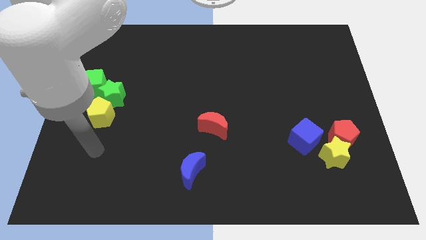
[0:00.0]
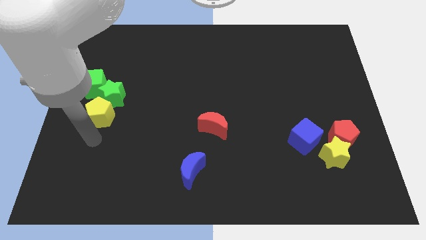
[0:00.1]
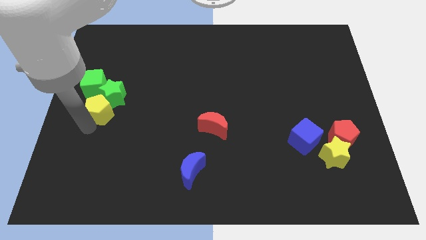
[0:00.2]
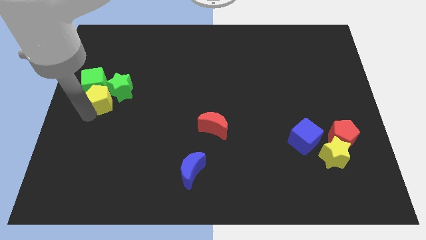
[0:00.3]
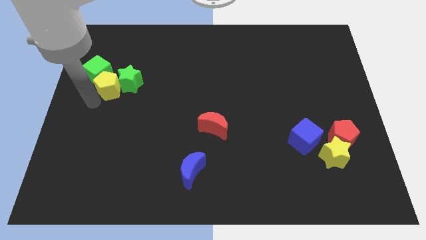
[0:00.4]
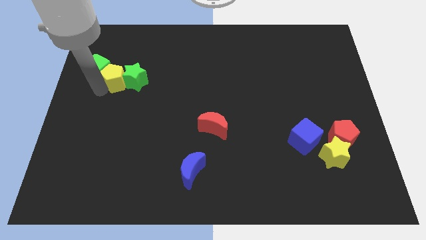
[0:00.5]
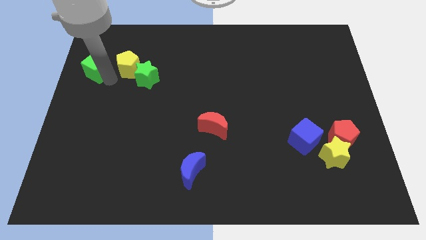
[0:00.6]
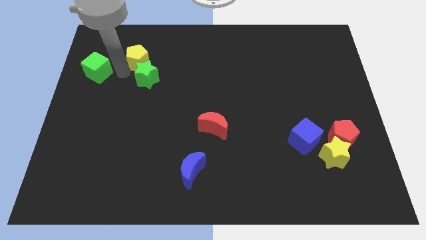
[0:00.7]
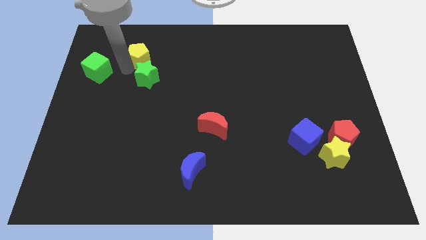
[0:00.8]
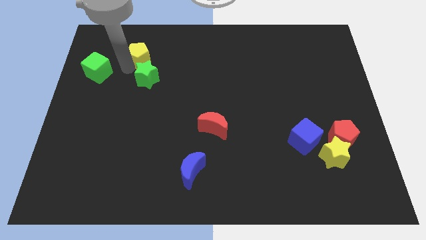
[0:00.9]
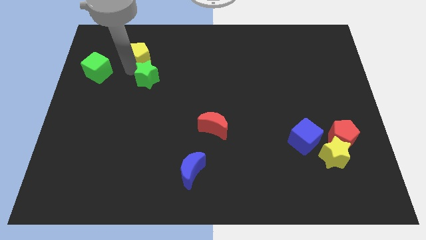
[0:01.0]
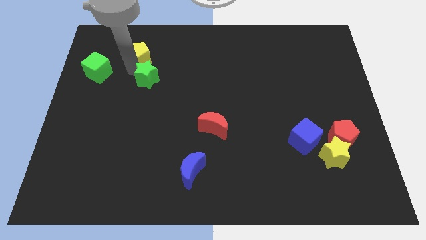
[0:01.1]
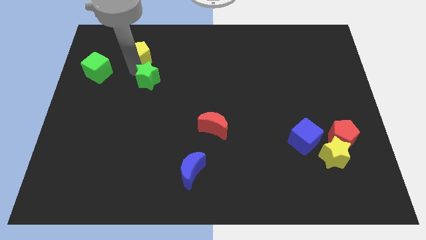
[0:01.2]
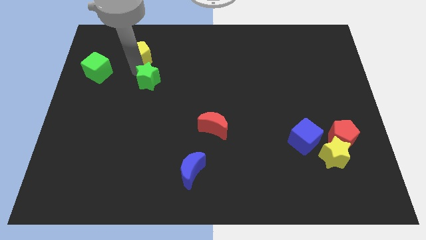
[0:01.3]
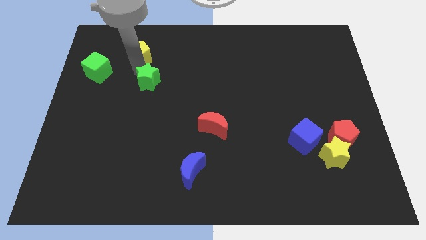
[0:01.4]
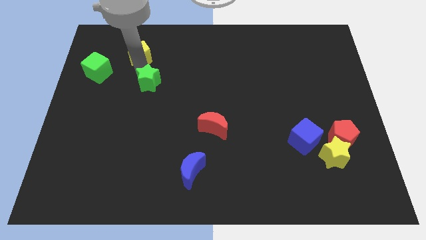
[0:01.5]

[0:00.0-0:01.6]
separate the green star from the green cube and yellow pentagon

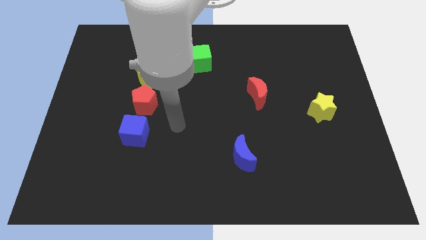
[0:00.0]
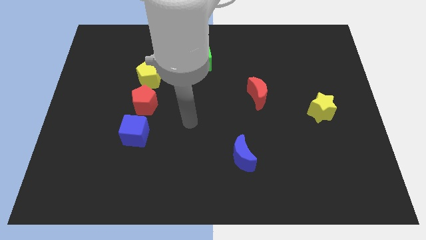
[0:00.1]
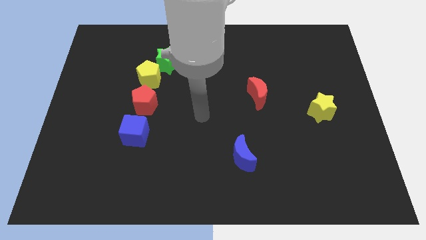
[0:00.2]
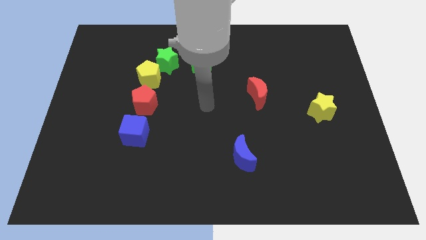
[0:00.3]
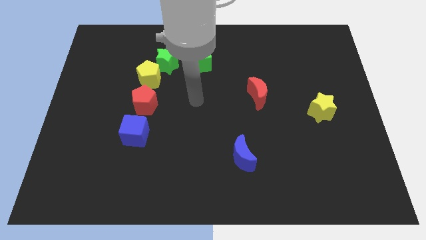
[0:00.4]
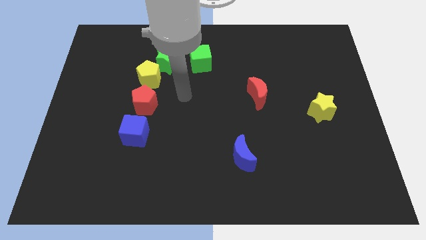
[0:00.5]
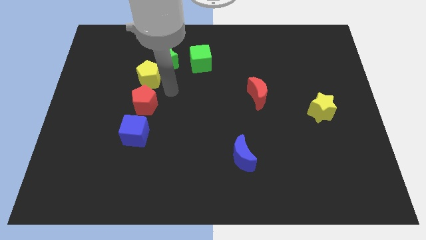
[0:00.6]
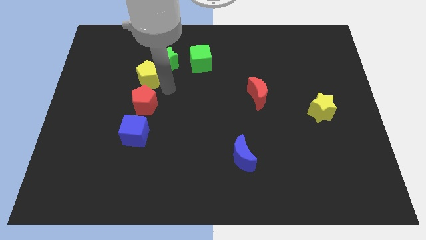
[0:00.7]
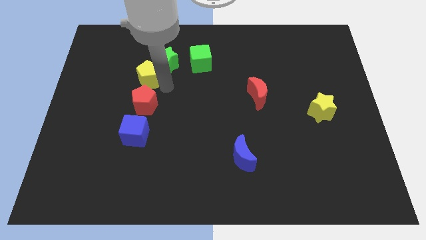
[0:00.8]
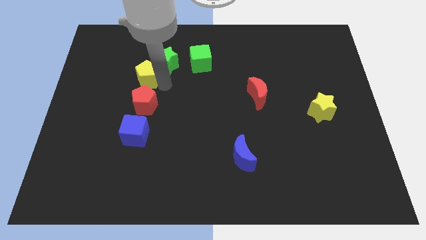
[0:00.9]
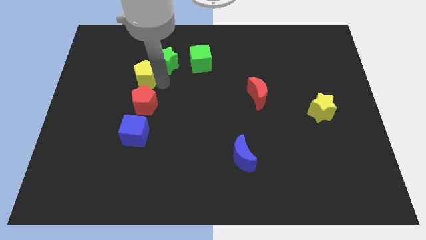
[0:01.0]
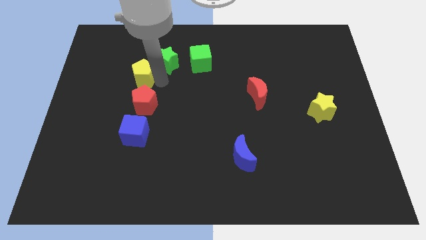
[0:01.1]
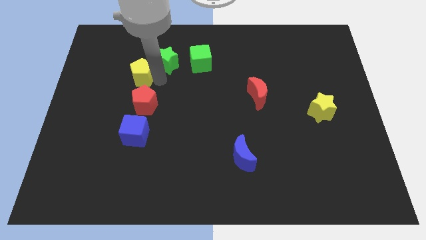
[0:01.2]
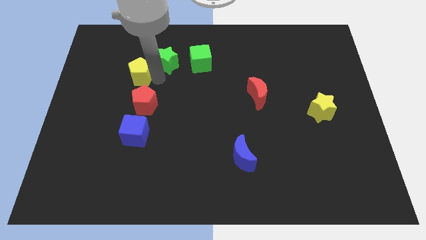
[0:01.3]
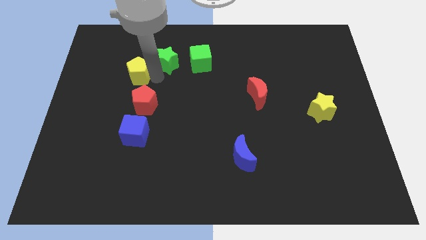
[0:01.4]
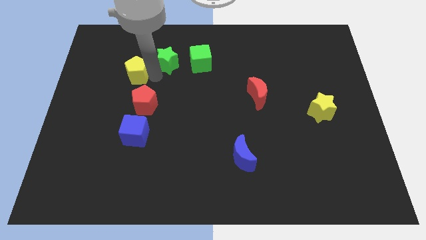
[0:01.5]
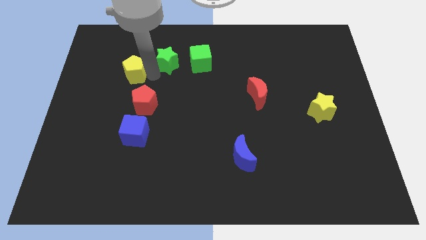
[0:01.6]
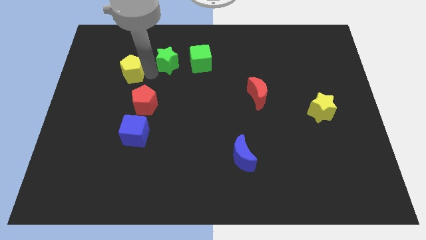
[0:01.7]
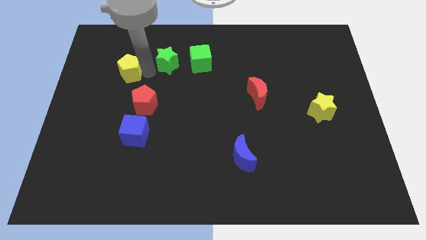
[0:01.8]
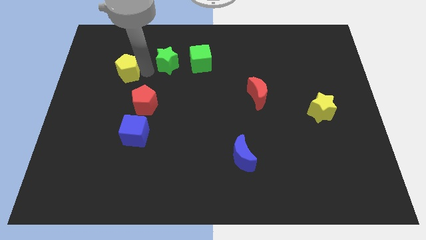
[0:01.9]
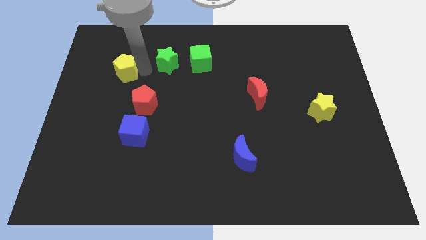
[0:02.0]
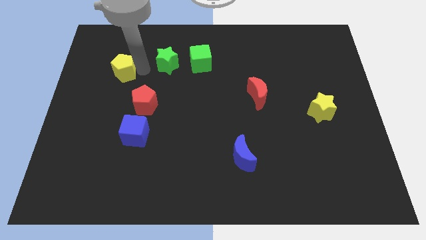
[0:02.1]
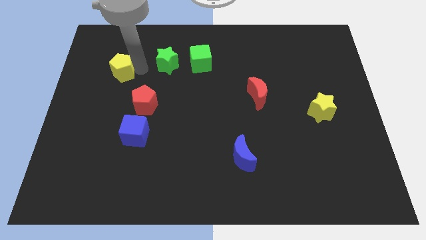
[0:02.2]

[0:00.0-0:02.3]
pull the yellow pentagon apart from the green star and red pentagon

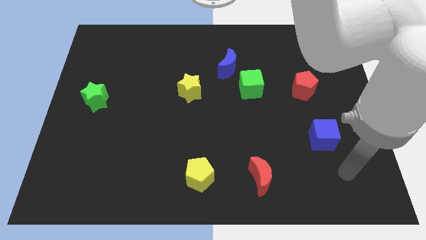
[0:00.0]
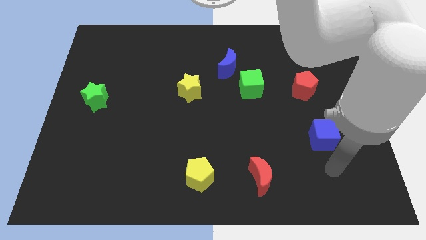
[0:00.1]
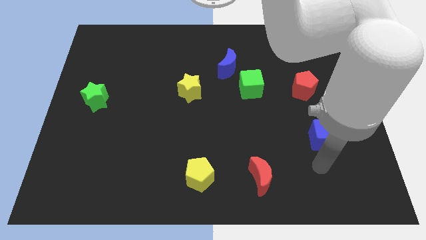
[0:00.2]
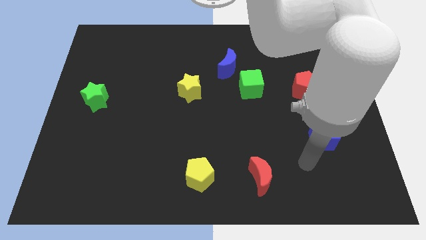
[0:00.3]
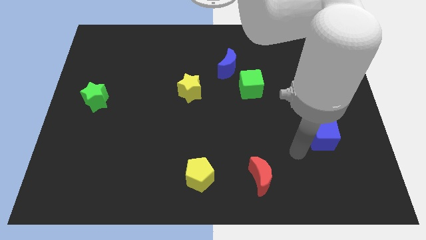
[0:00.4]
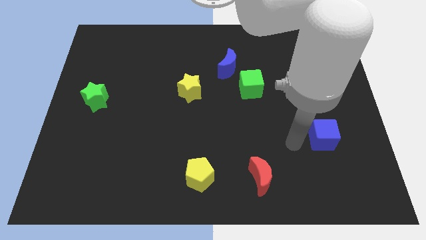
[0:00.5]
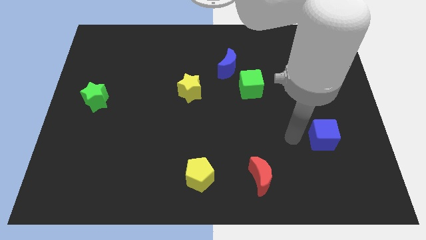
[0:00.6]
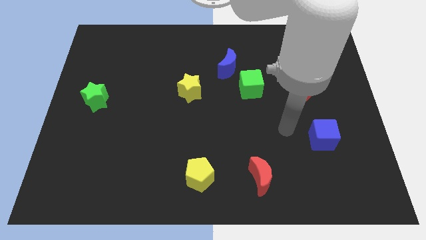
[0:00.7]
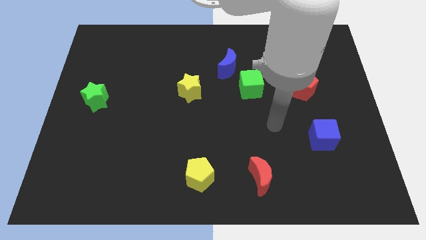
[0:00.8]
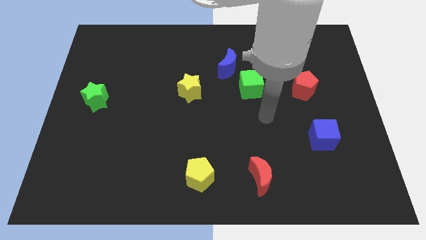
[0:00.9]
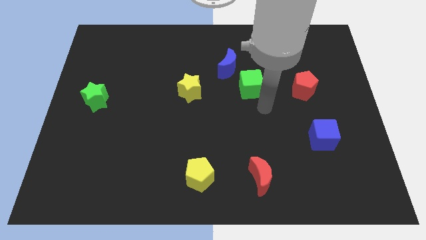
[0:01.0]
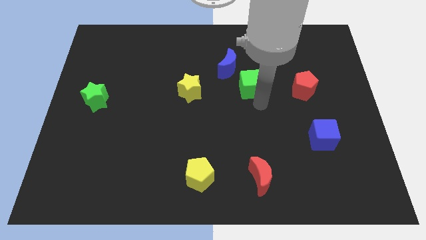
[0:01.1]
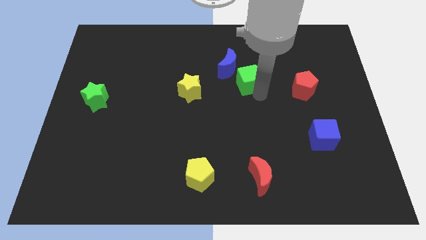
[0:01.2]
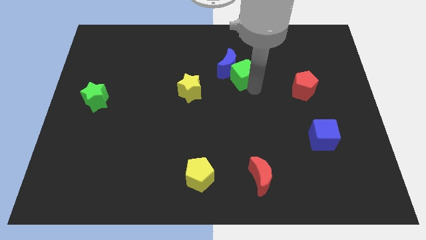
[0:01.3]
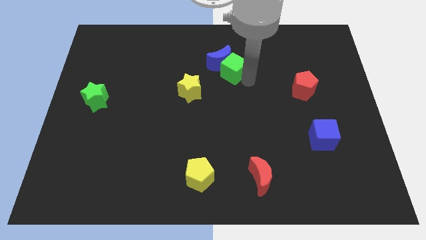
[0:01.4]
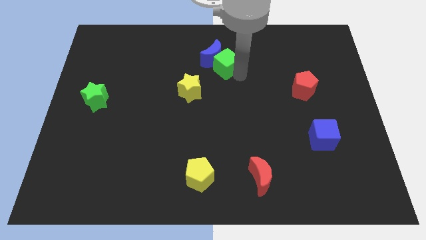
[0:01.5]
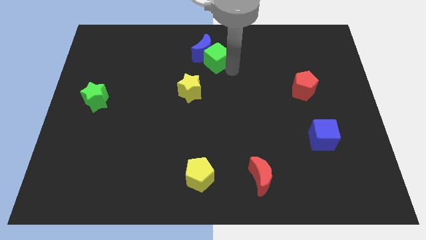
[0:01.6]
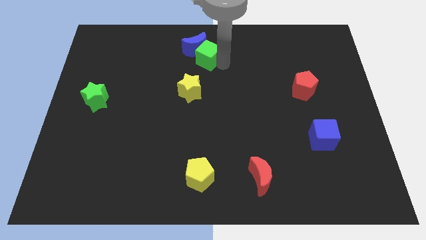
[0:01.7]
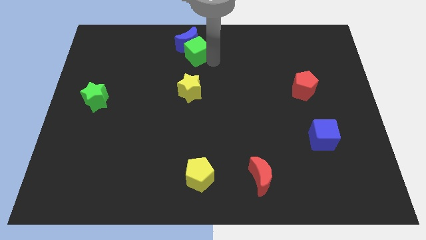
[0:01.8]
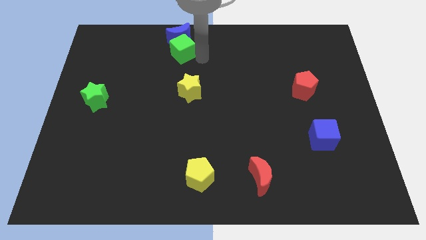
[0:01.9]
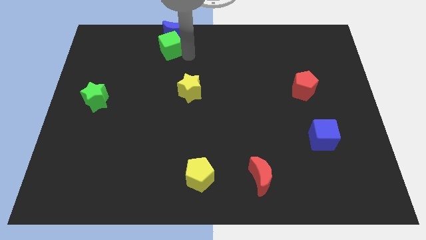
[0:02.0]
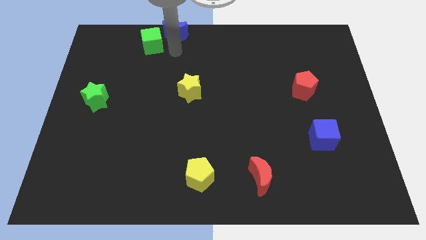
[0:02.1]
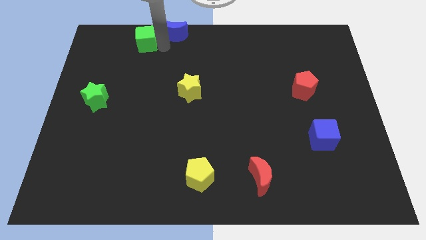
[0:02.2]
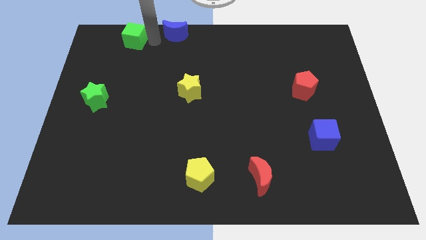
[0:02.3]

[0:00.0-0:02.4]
pull the blue moon apart from the green cube

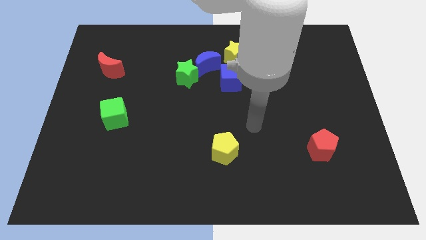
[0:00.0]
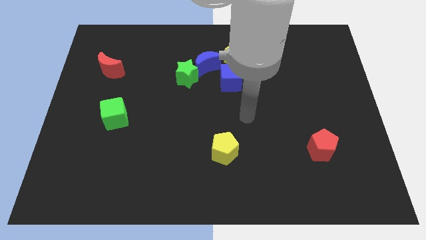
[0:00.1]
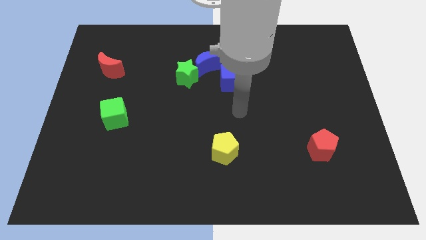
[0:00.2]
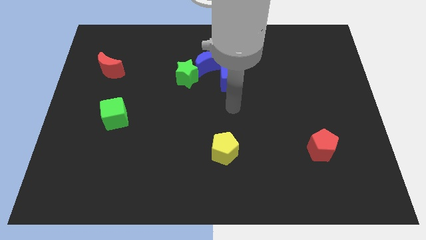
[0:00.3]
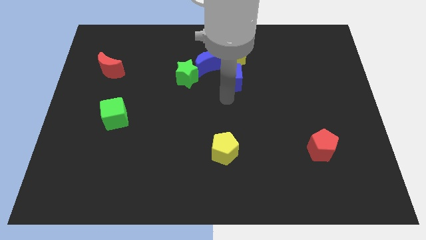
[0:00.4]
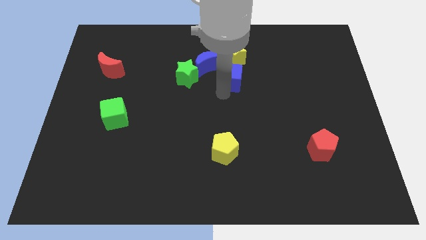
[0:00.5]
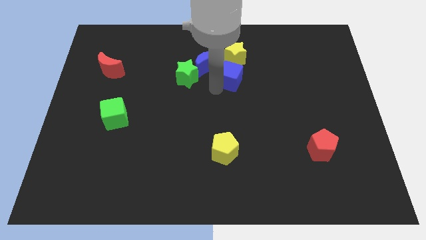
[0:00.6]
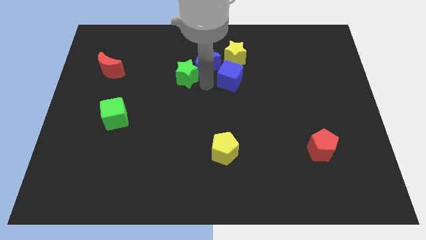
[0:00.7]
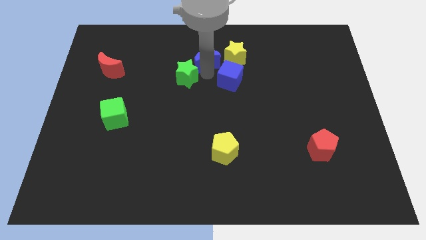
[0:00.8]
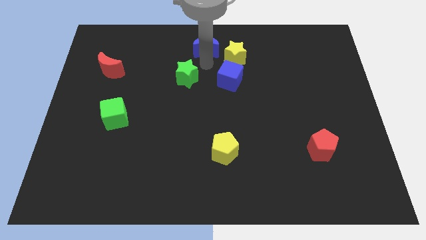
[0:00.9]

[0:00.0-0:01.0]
pull the green star apart from the blue moon

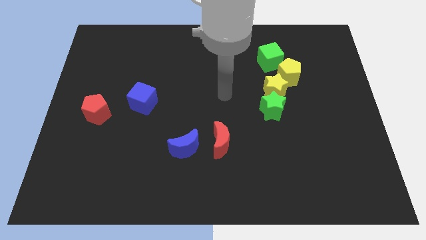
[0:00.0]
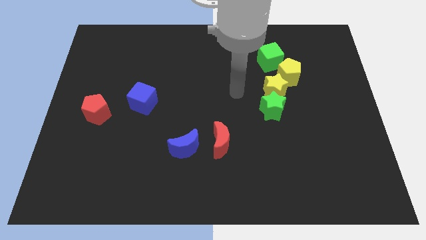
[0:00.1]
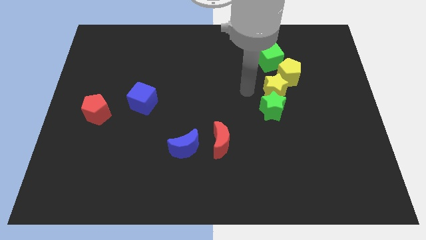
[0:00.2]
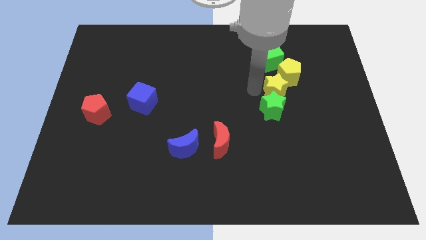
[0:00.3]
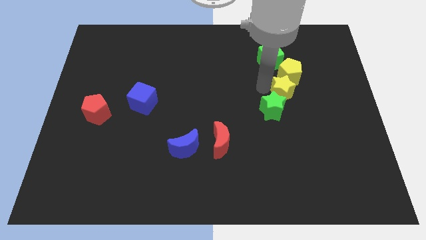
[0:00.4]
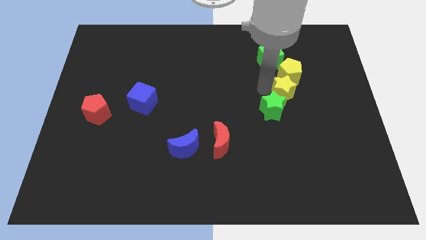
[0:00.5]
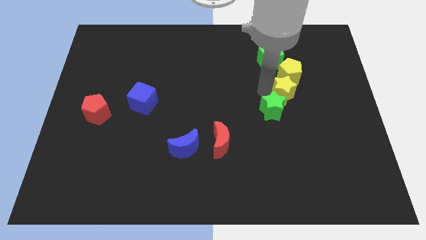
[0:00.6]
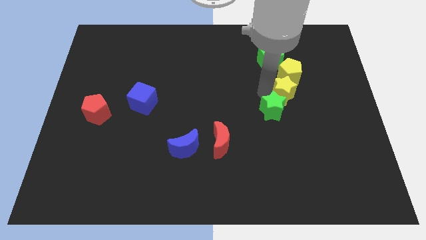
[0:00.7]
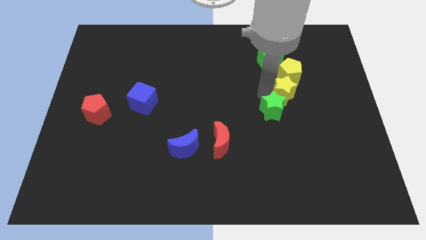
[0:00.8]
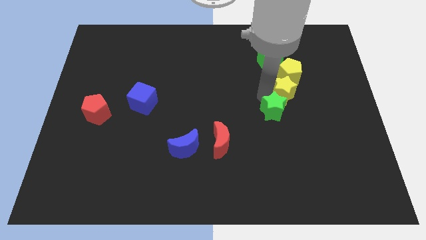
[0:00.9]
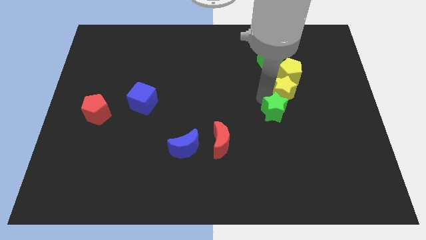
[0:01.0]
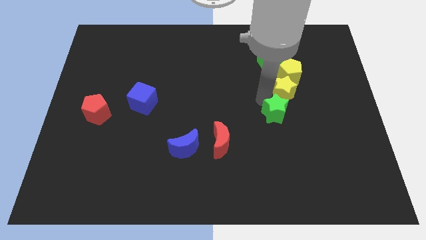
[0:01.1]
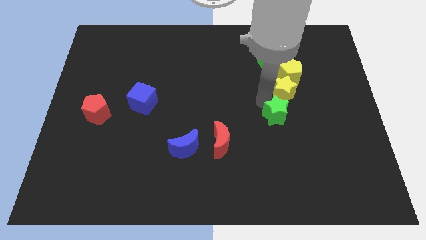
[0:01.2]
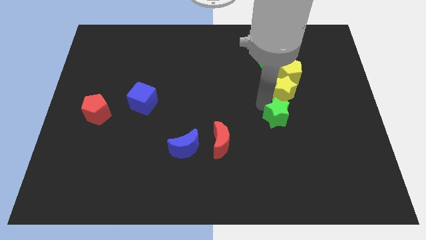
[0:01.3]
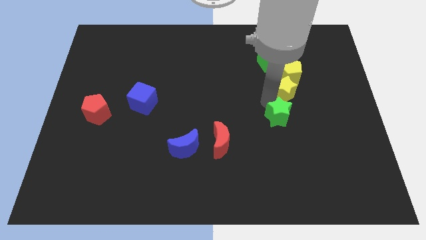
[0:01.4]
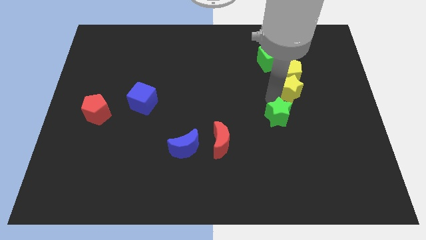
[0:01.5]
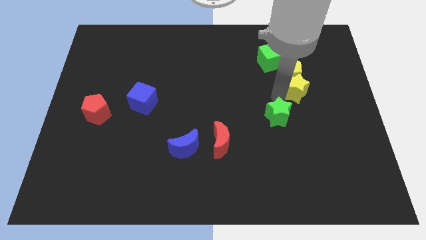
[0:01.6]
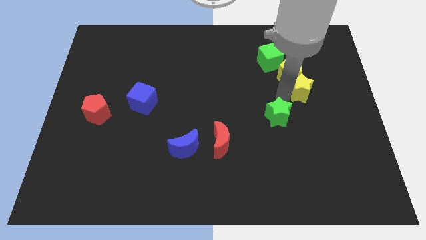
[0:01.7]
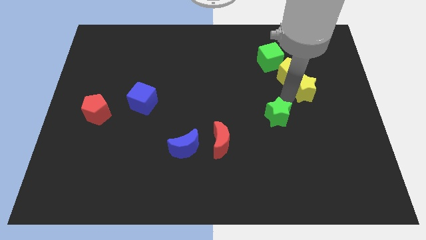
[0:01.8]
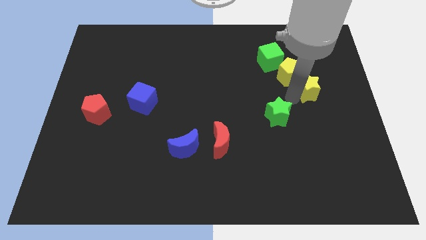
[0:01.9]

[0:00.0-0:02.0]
move the green star away from the yellow star

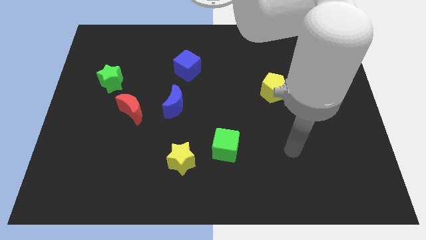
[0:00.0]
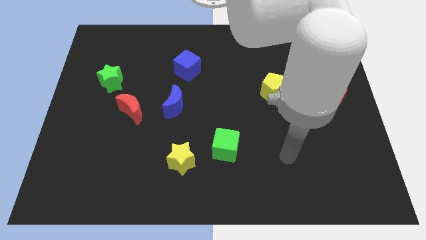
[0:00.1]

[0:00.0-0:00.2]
pull the green cube apart from the yellow star
